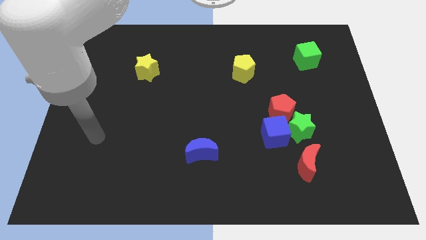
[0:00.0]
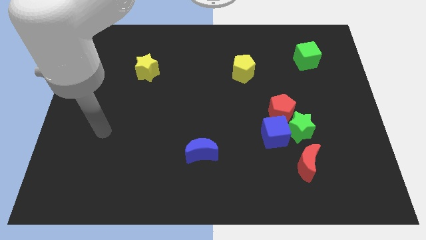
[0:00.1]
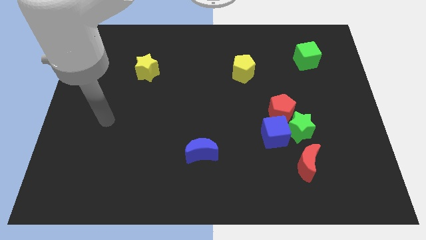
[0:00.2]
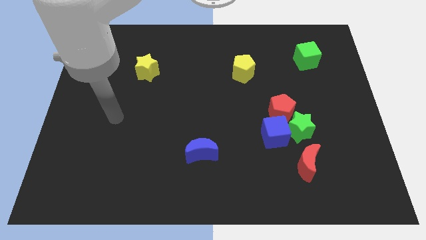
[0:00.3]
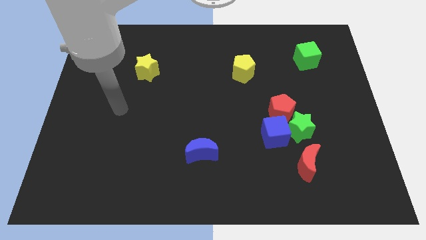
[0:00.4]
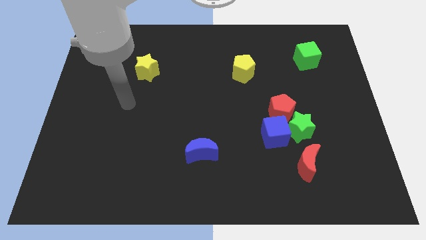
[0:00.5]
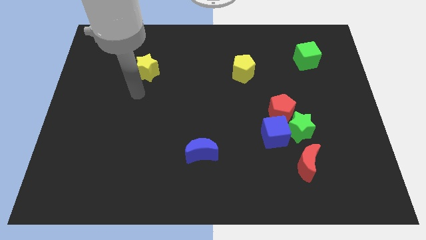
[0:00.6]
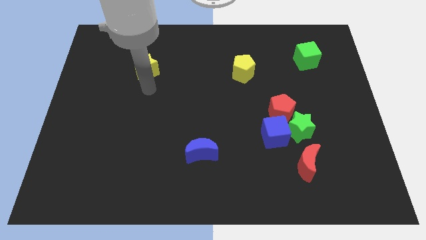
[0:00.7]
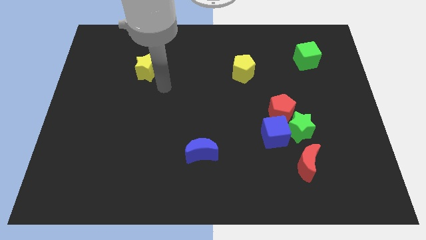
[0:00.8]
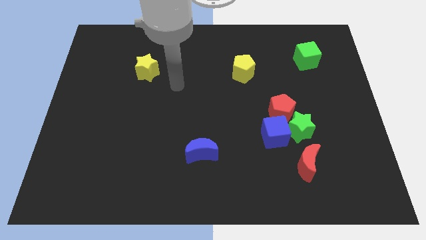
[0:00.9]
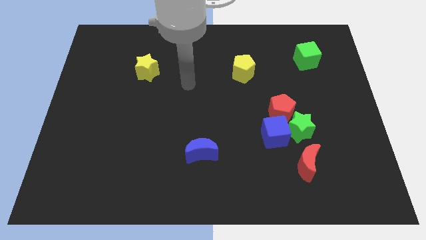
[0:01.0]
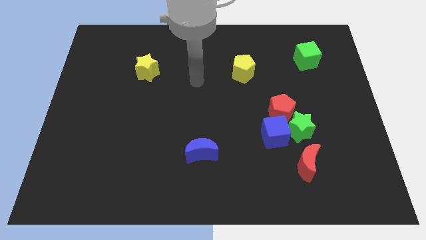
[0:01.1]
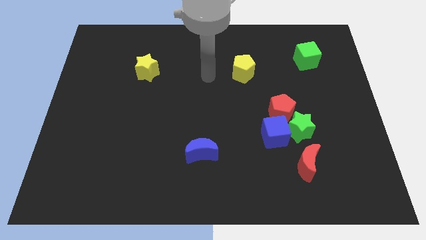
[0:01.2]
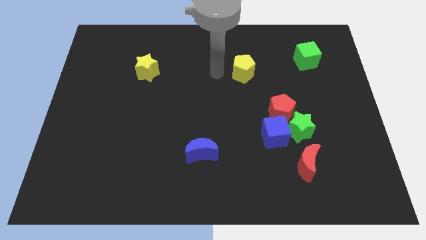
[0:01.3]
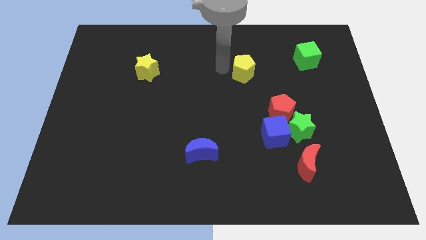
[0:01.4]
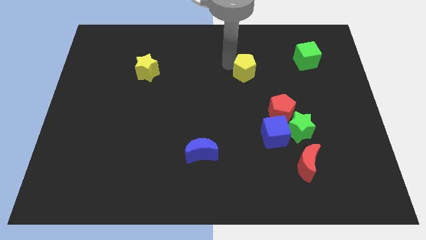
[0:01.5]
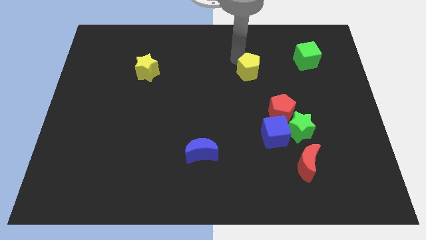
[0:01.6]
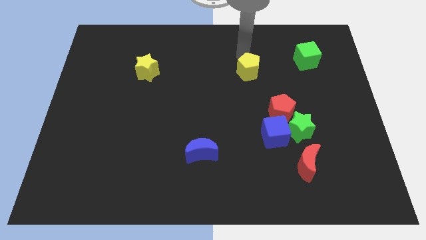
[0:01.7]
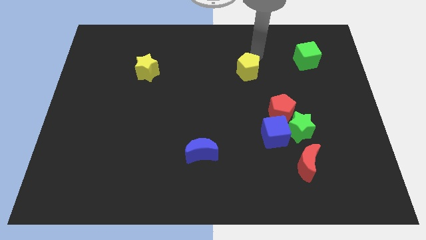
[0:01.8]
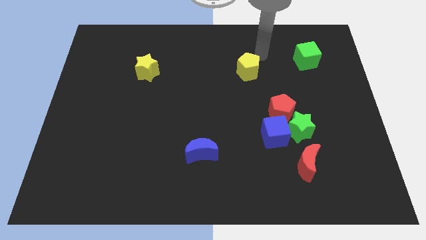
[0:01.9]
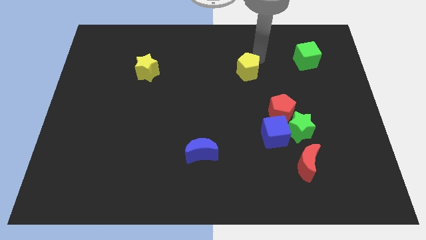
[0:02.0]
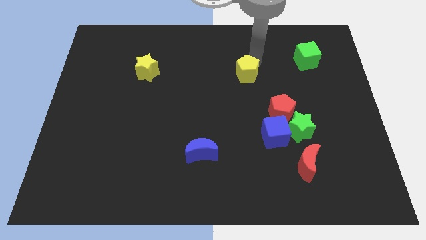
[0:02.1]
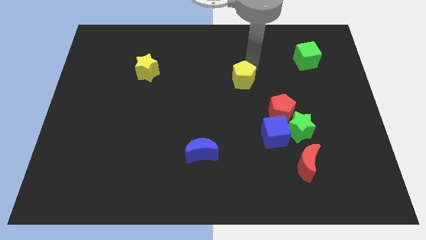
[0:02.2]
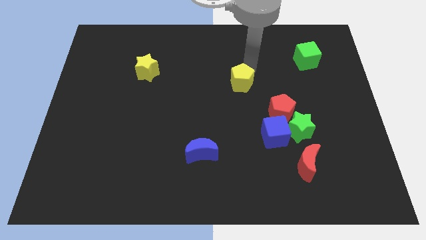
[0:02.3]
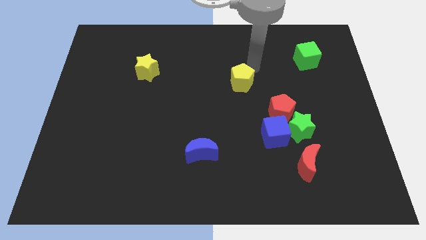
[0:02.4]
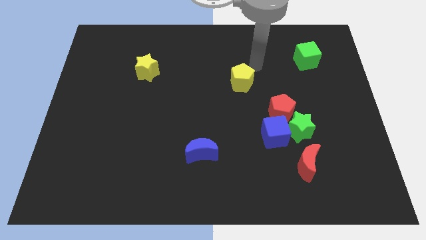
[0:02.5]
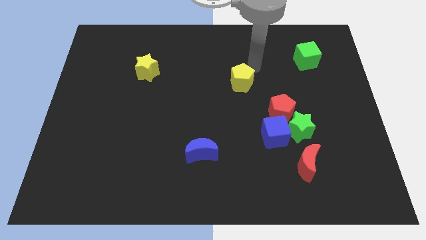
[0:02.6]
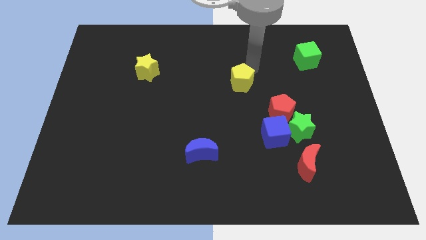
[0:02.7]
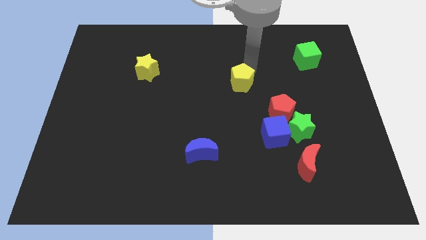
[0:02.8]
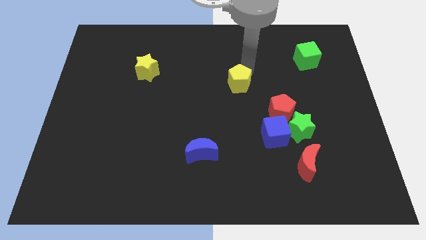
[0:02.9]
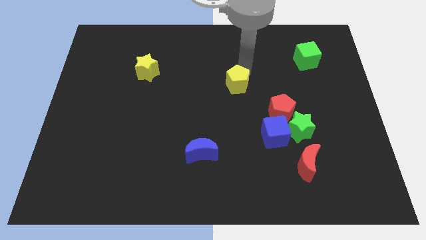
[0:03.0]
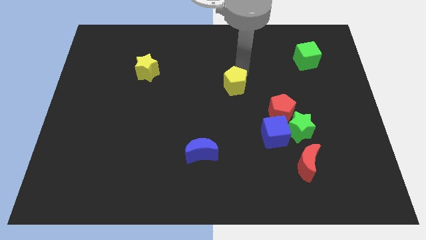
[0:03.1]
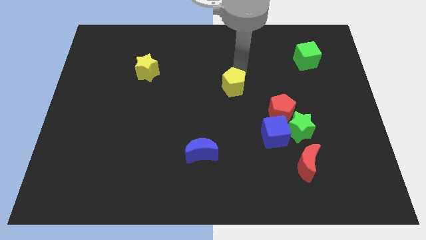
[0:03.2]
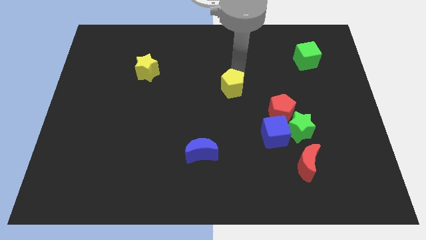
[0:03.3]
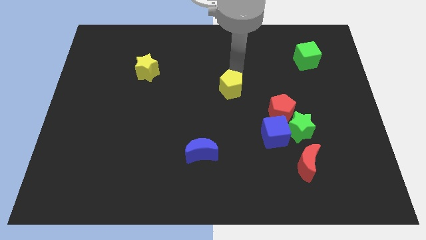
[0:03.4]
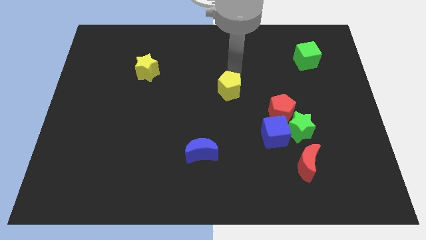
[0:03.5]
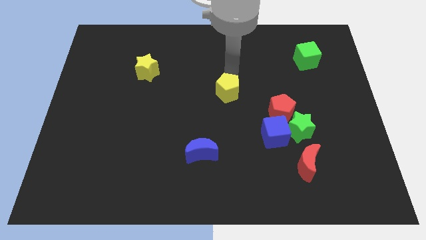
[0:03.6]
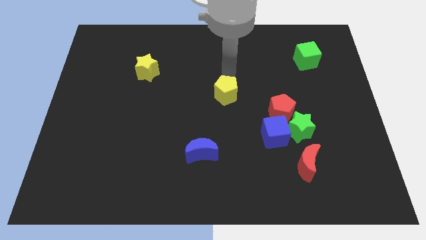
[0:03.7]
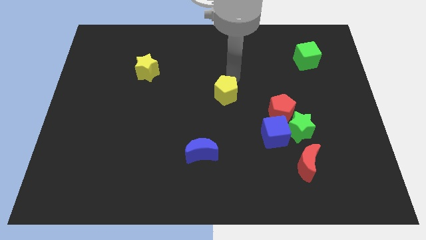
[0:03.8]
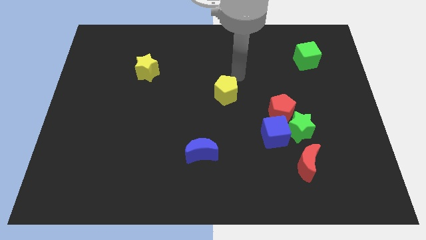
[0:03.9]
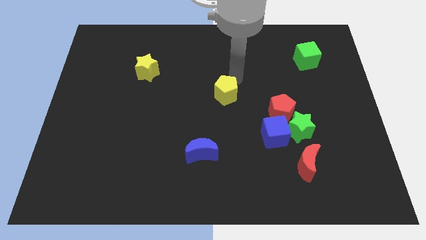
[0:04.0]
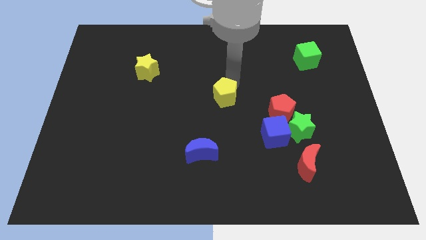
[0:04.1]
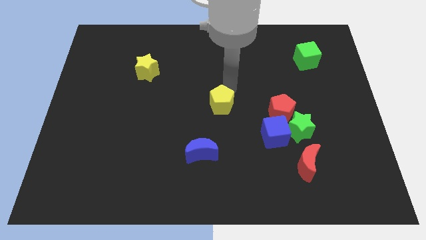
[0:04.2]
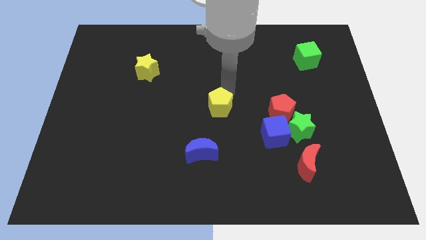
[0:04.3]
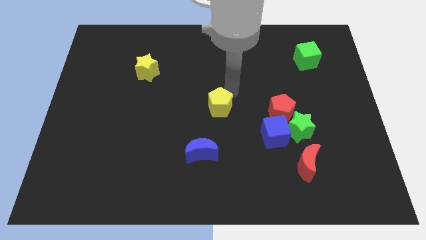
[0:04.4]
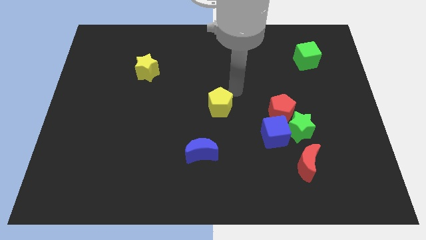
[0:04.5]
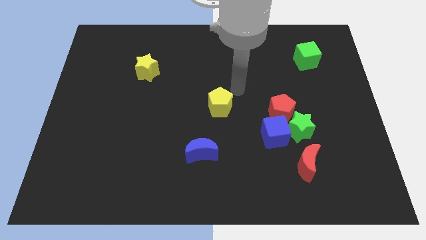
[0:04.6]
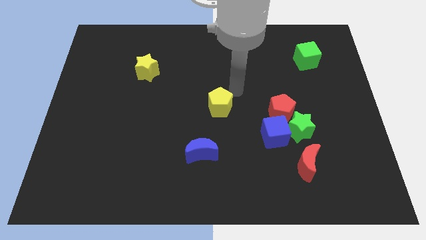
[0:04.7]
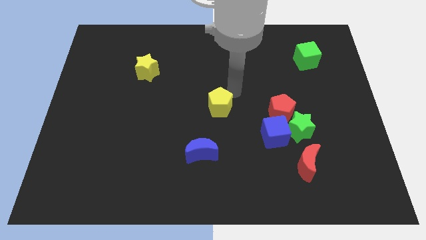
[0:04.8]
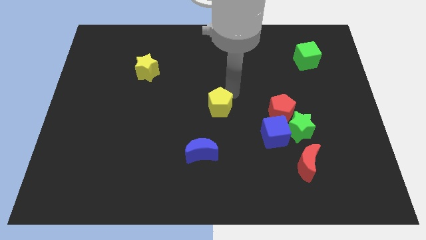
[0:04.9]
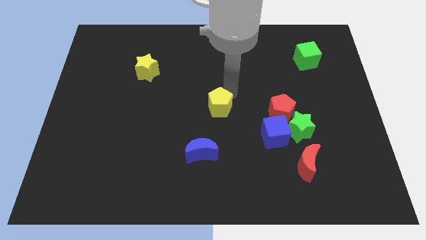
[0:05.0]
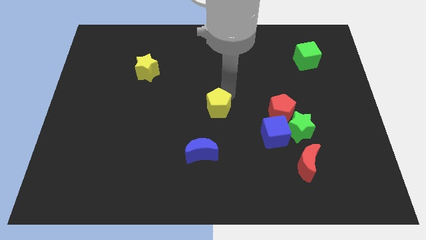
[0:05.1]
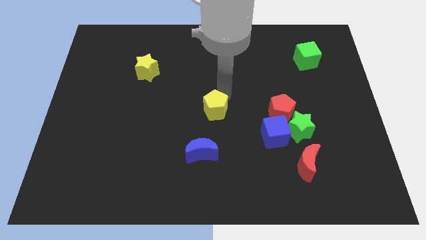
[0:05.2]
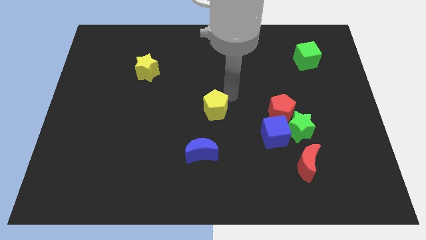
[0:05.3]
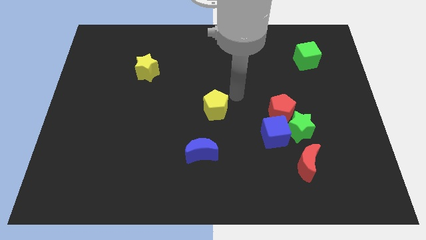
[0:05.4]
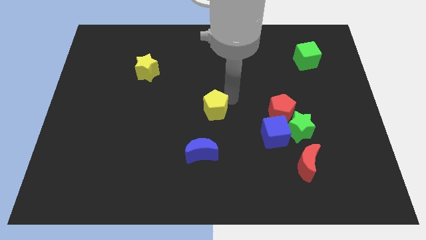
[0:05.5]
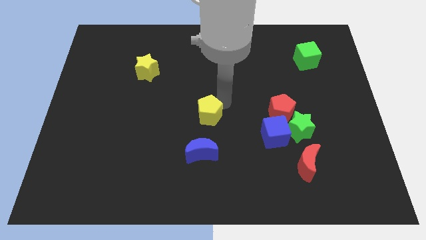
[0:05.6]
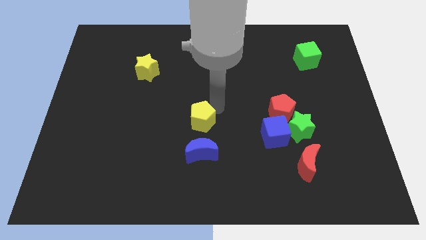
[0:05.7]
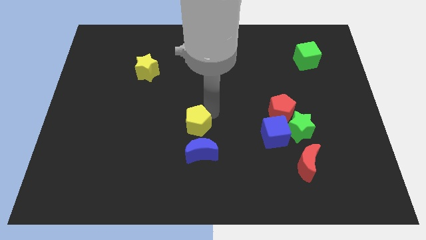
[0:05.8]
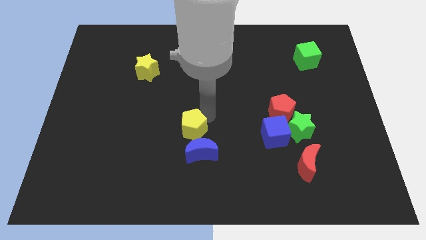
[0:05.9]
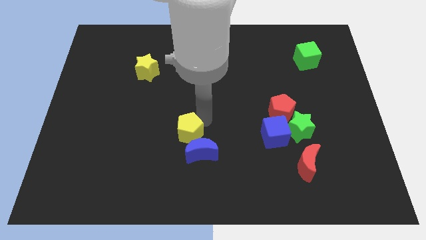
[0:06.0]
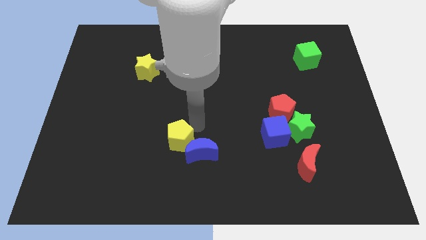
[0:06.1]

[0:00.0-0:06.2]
push the yellow pentagon to the left side of the blue moon

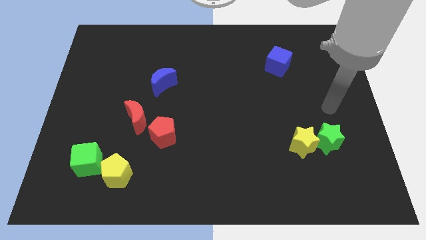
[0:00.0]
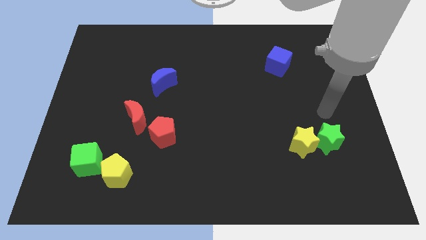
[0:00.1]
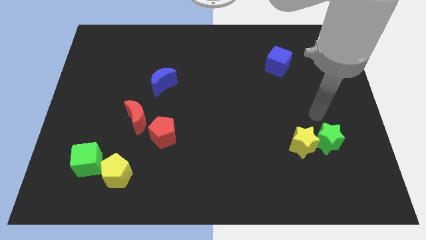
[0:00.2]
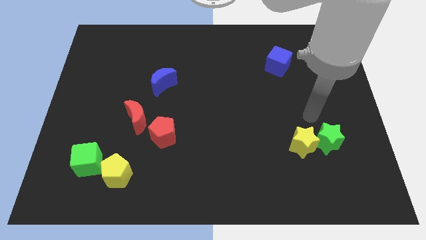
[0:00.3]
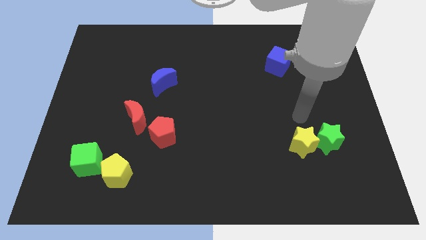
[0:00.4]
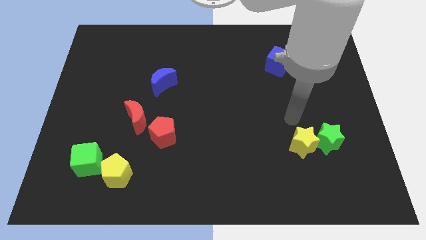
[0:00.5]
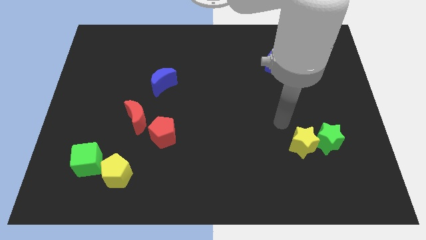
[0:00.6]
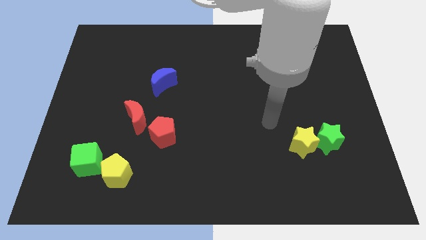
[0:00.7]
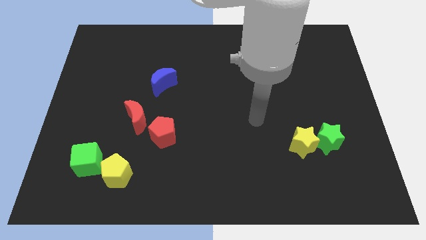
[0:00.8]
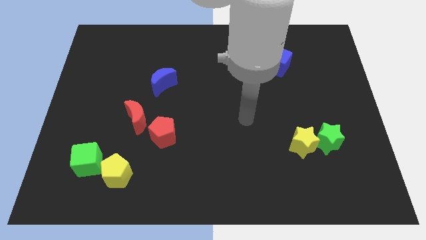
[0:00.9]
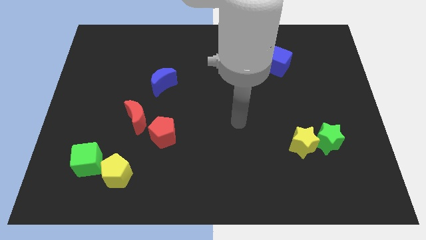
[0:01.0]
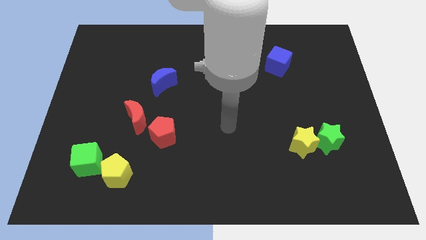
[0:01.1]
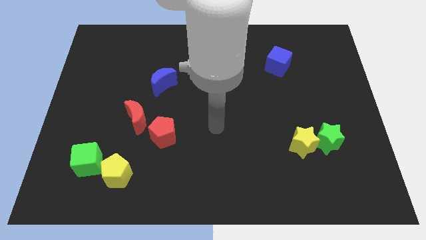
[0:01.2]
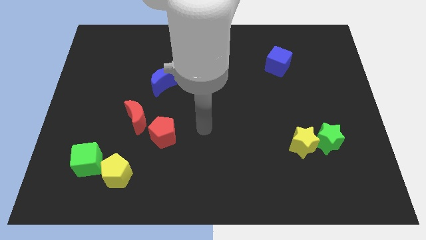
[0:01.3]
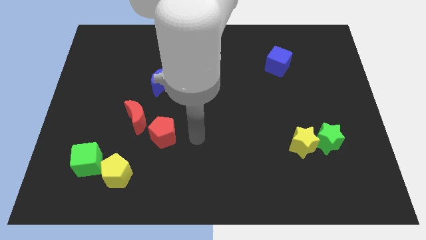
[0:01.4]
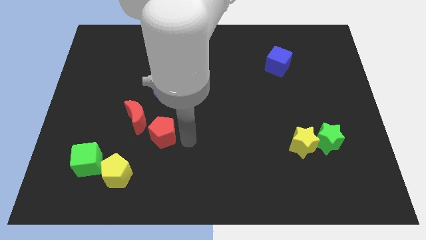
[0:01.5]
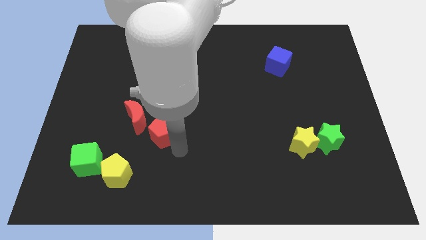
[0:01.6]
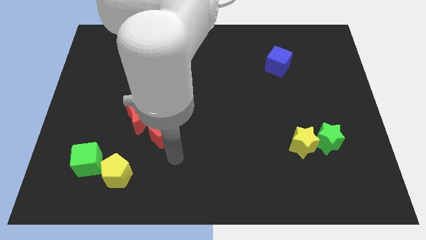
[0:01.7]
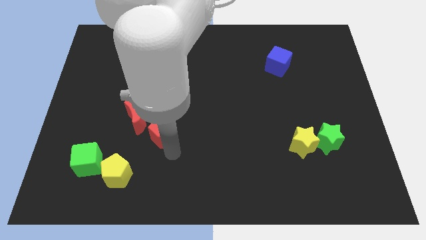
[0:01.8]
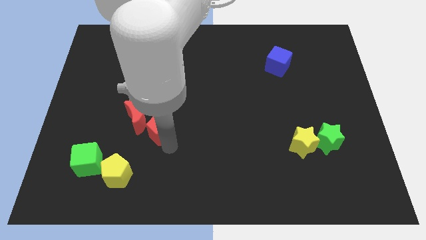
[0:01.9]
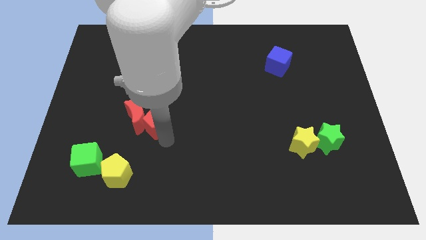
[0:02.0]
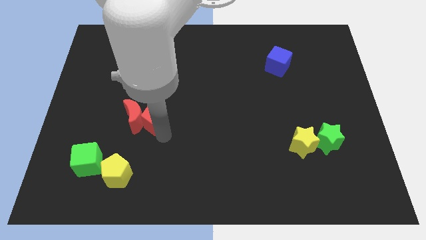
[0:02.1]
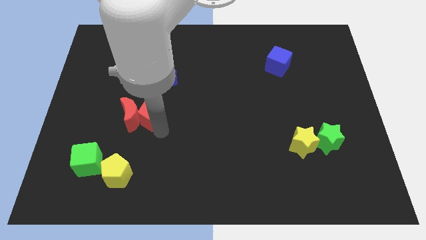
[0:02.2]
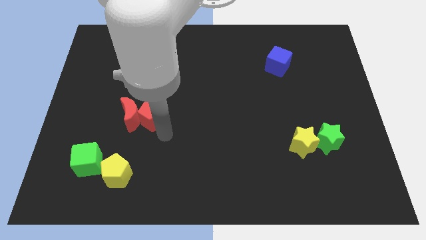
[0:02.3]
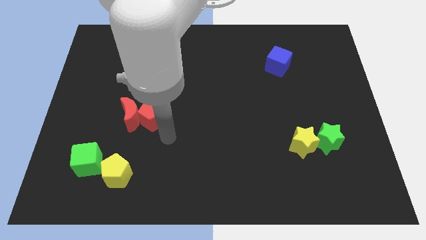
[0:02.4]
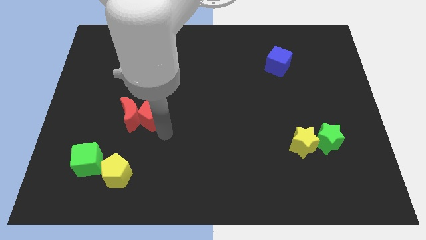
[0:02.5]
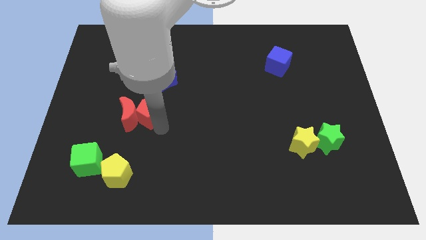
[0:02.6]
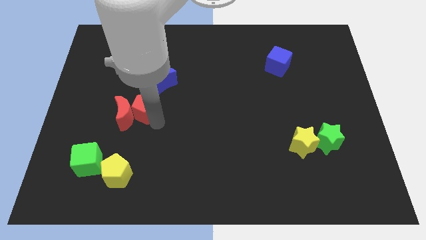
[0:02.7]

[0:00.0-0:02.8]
push the red pentagon to the bottom left side of the blue moon
